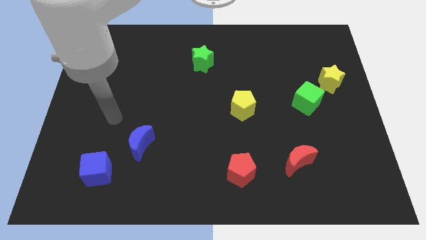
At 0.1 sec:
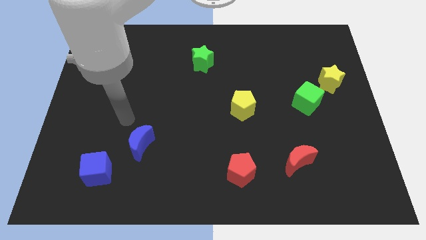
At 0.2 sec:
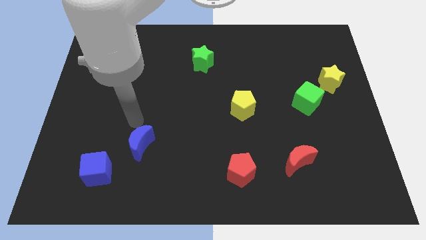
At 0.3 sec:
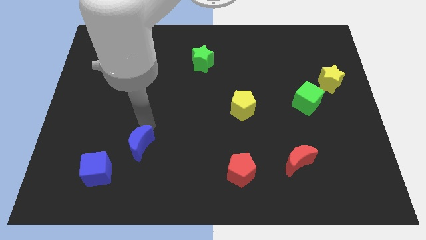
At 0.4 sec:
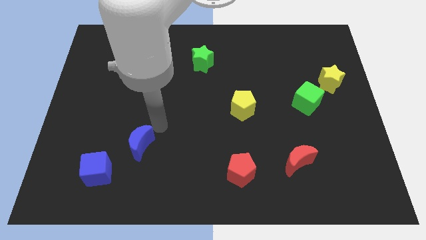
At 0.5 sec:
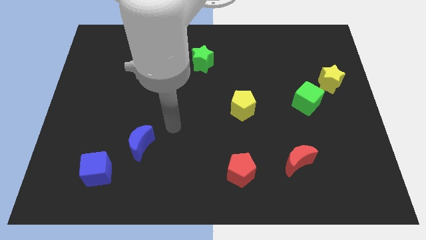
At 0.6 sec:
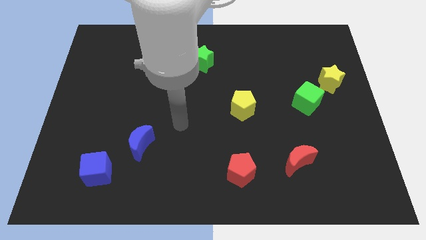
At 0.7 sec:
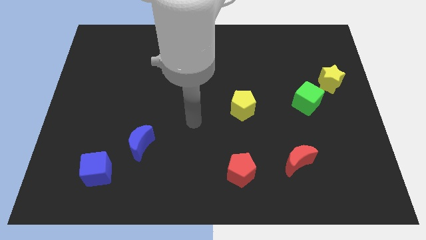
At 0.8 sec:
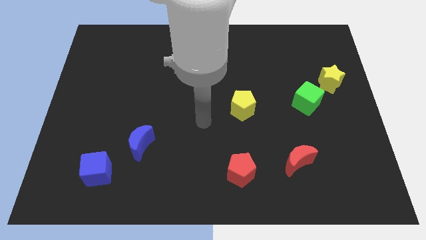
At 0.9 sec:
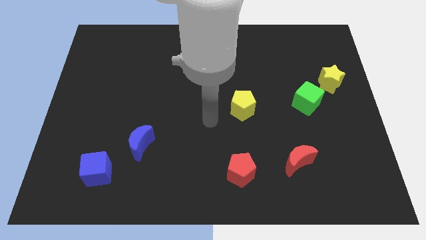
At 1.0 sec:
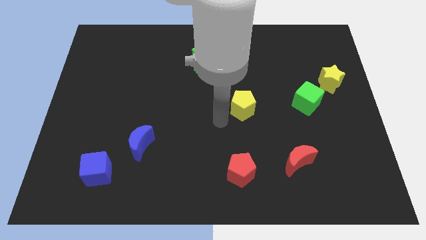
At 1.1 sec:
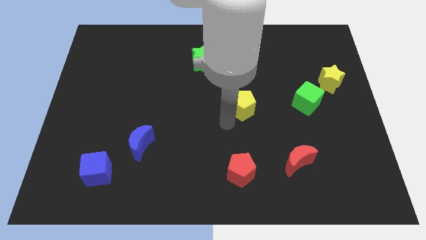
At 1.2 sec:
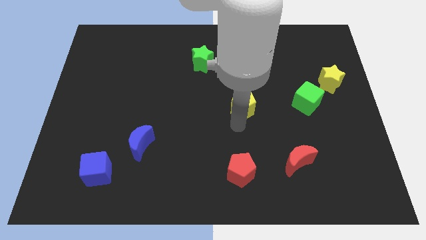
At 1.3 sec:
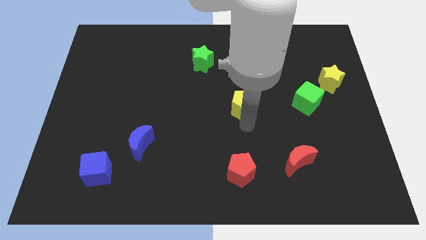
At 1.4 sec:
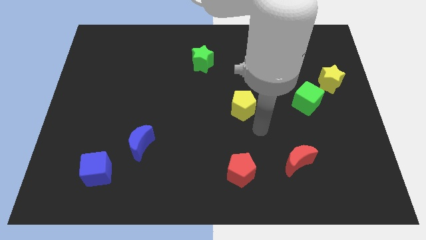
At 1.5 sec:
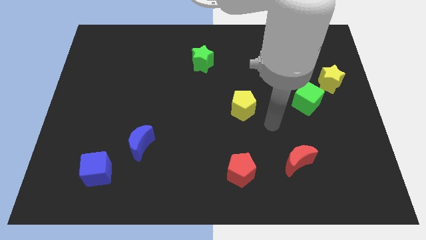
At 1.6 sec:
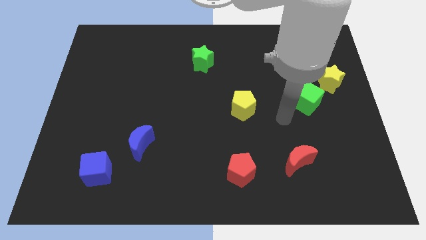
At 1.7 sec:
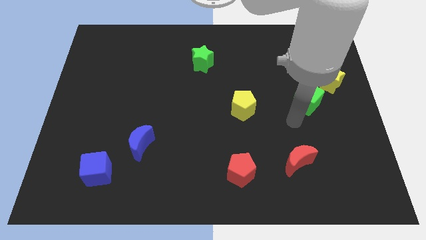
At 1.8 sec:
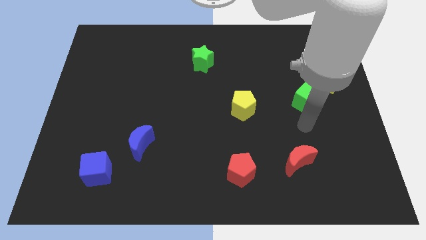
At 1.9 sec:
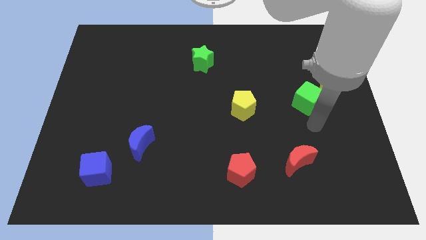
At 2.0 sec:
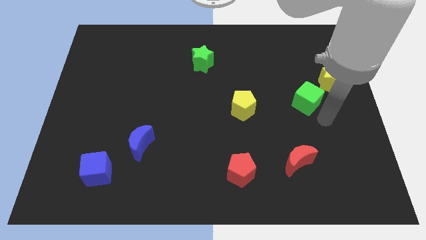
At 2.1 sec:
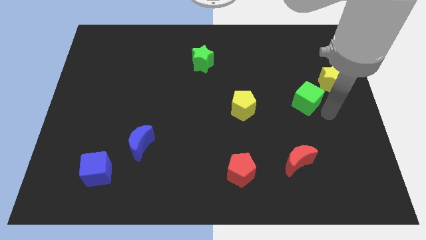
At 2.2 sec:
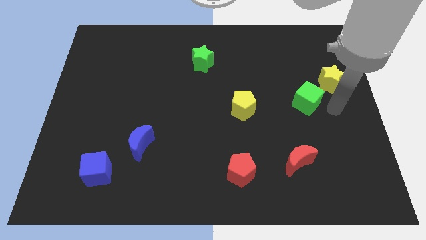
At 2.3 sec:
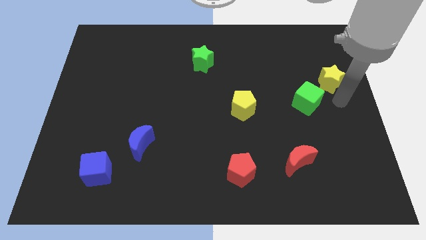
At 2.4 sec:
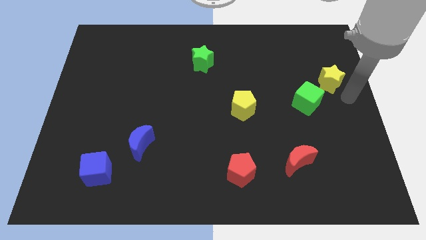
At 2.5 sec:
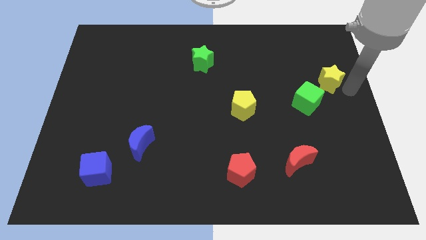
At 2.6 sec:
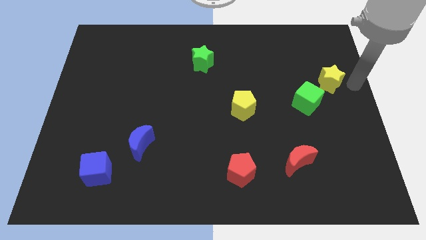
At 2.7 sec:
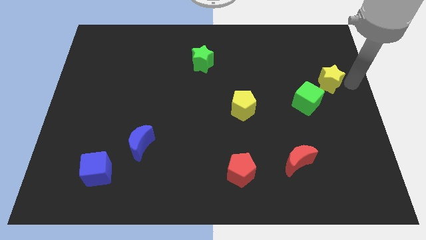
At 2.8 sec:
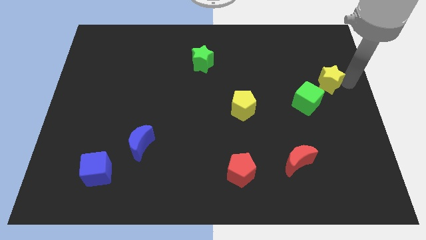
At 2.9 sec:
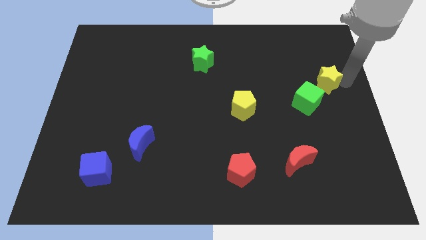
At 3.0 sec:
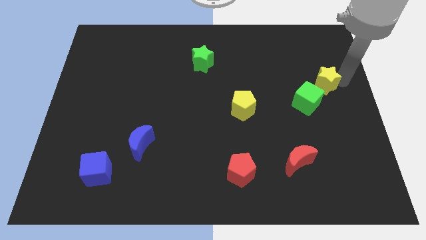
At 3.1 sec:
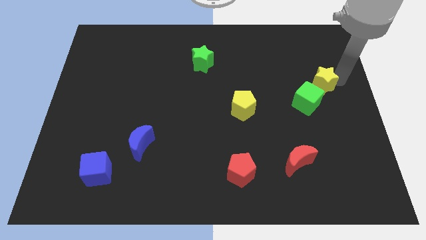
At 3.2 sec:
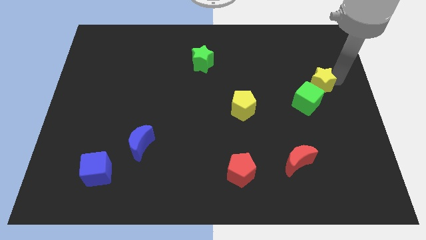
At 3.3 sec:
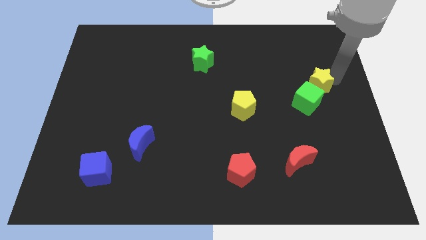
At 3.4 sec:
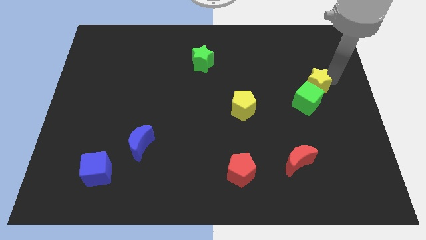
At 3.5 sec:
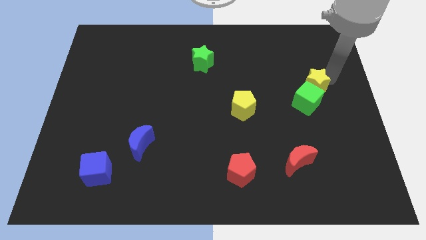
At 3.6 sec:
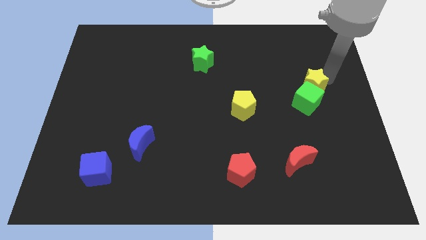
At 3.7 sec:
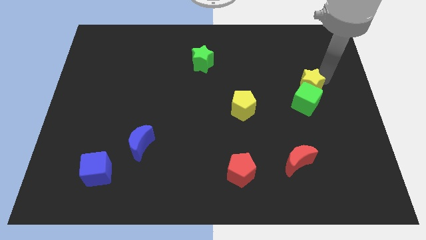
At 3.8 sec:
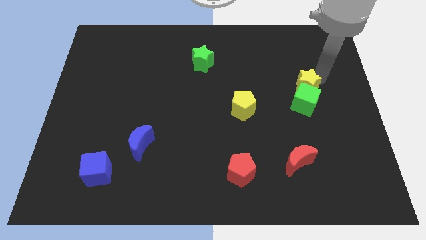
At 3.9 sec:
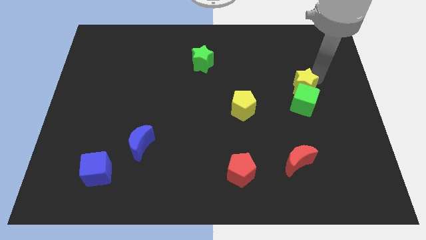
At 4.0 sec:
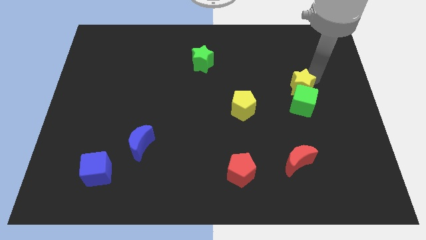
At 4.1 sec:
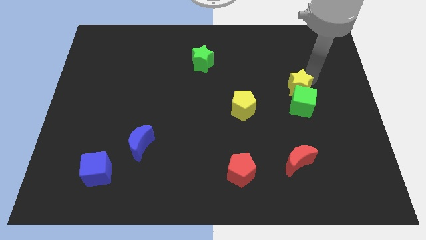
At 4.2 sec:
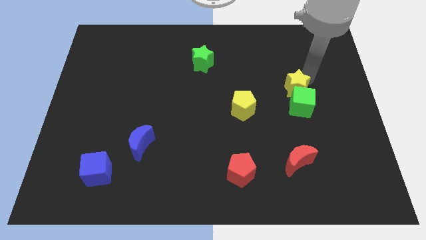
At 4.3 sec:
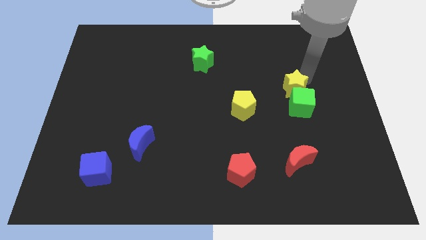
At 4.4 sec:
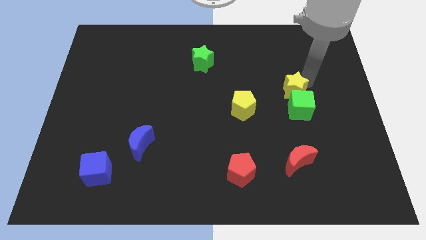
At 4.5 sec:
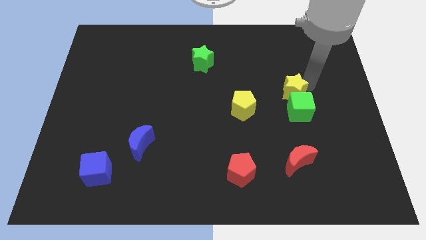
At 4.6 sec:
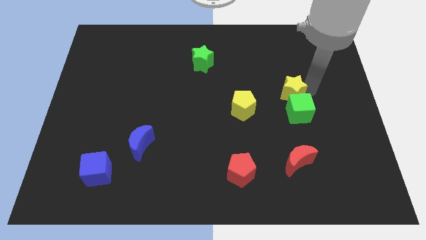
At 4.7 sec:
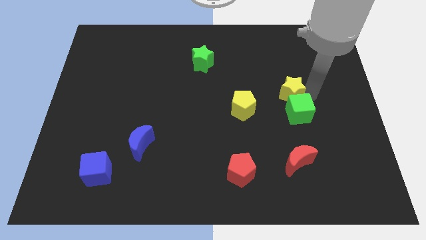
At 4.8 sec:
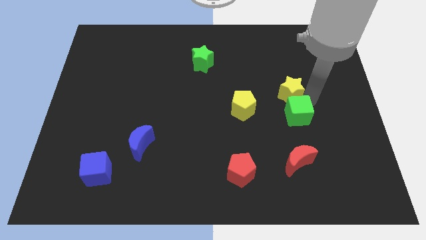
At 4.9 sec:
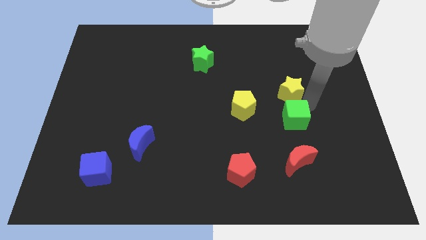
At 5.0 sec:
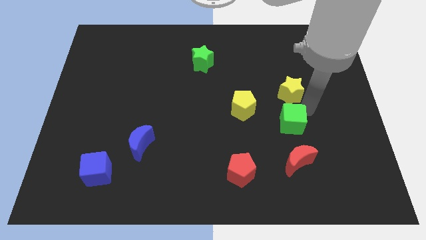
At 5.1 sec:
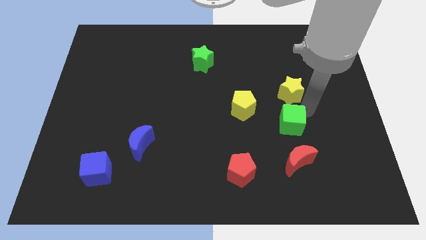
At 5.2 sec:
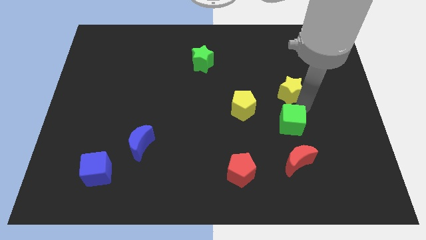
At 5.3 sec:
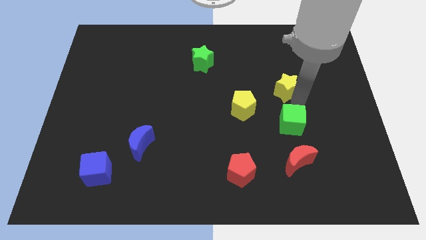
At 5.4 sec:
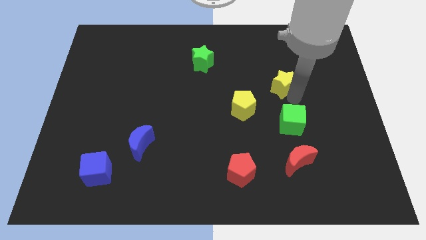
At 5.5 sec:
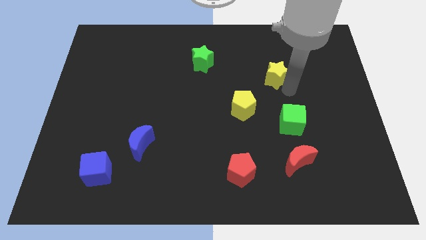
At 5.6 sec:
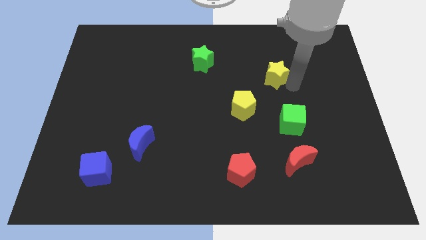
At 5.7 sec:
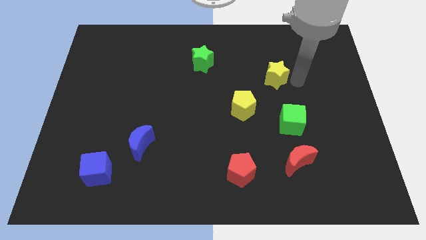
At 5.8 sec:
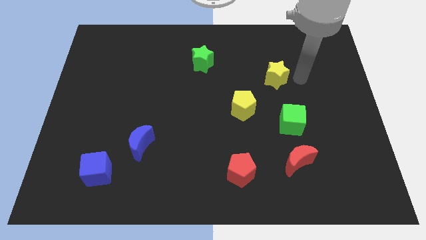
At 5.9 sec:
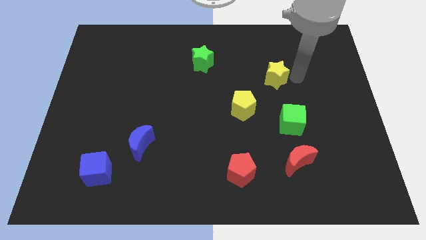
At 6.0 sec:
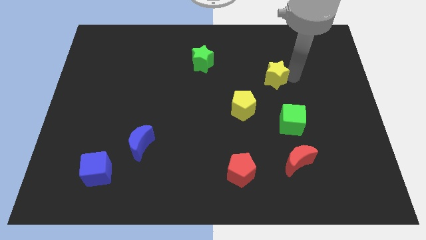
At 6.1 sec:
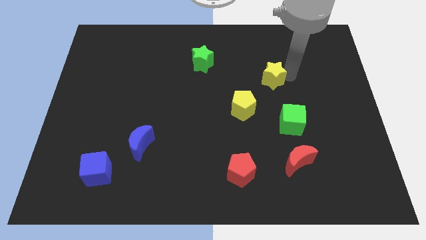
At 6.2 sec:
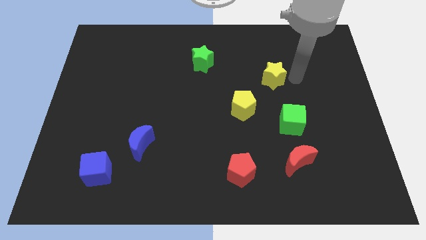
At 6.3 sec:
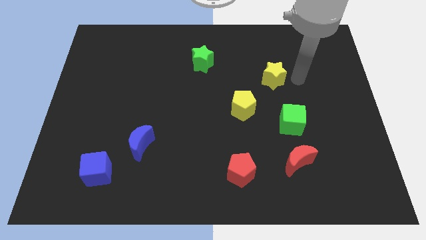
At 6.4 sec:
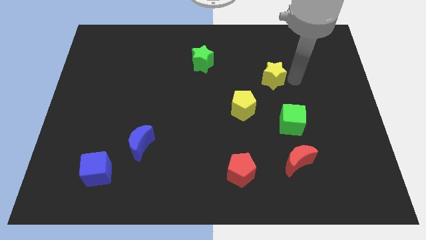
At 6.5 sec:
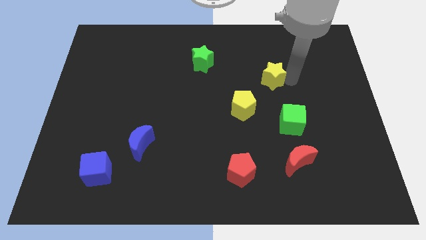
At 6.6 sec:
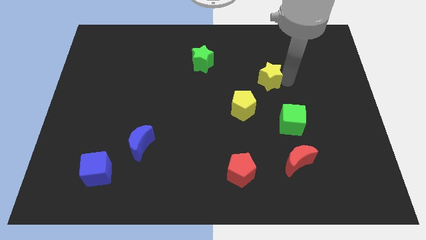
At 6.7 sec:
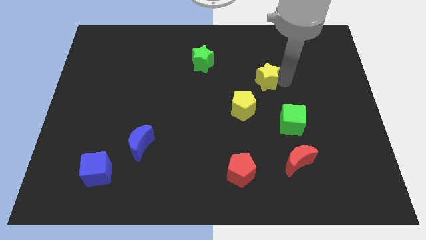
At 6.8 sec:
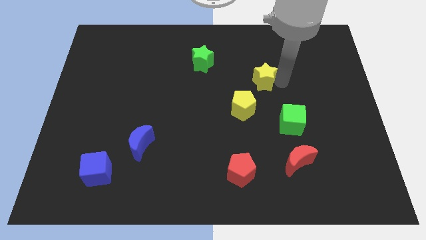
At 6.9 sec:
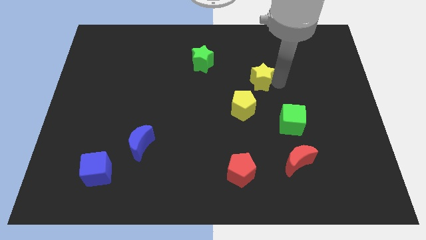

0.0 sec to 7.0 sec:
move the yellow star to the top side of the yellow pentagon

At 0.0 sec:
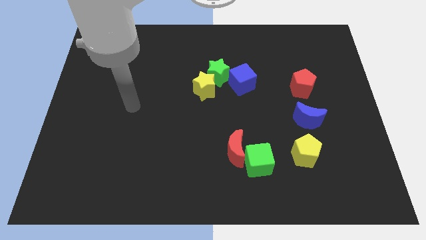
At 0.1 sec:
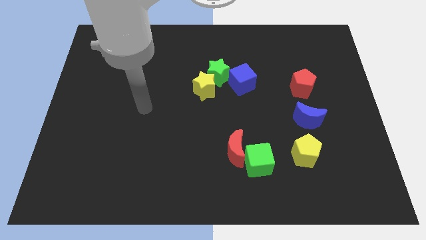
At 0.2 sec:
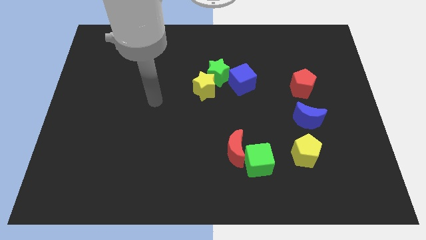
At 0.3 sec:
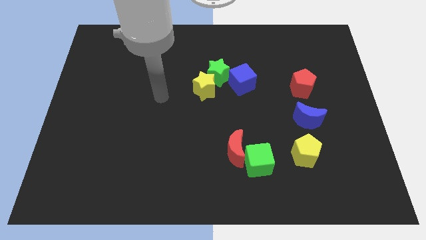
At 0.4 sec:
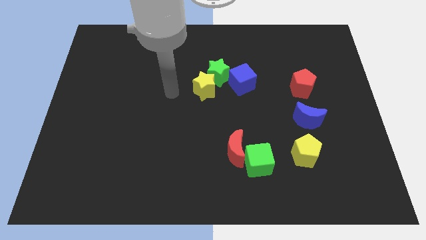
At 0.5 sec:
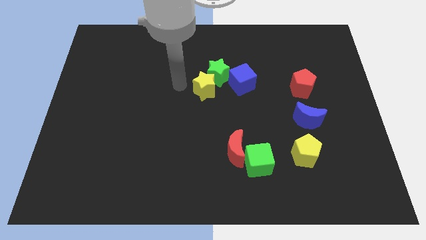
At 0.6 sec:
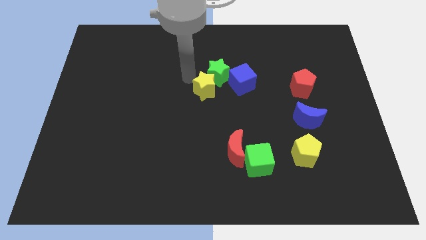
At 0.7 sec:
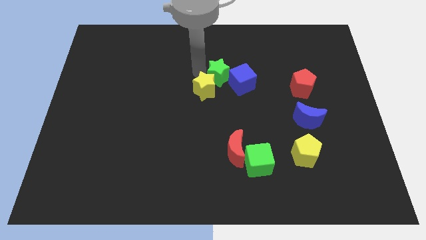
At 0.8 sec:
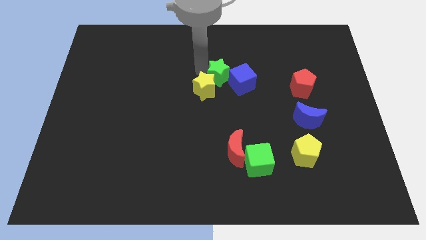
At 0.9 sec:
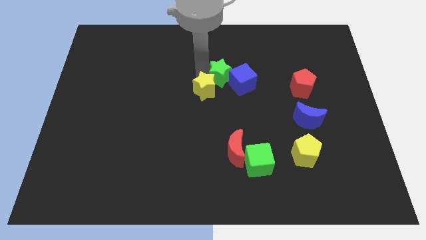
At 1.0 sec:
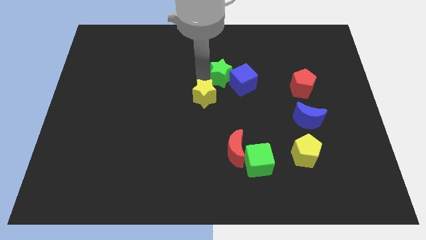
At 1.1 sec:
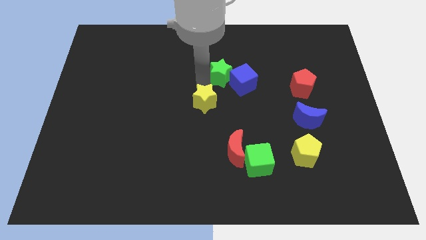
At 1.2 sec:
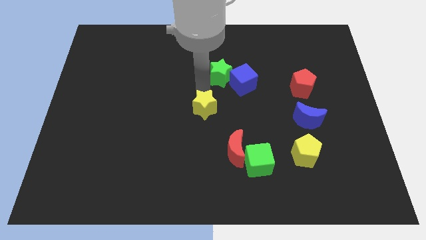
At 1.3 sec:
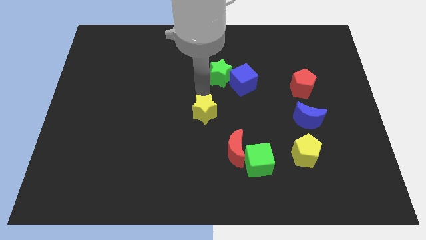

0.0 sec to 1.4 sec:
slide the yellow star diagonally up and to the left of the red moon
